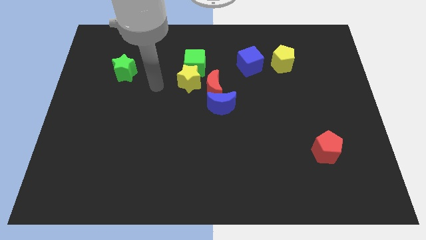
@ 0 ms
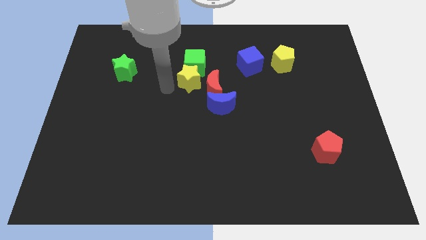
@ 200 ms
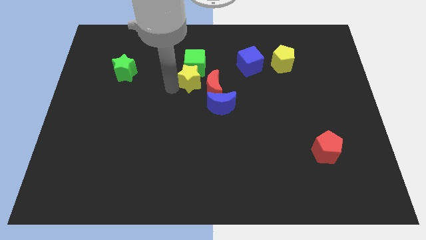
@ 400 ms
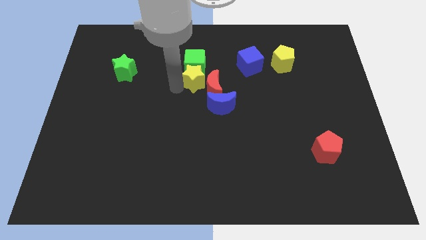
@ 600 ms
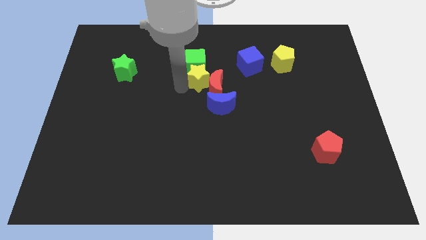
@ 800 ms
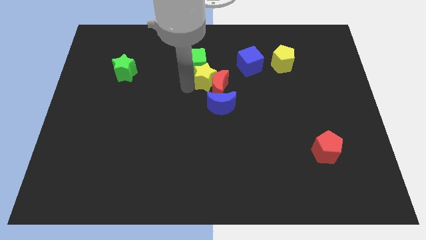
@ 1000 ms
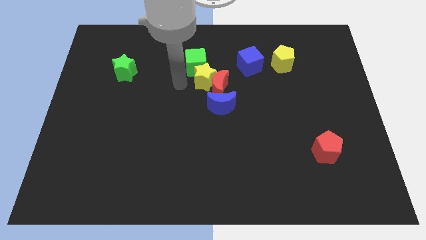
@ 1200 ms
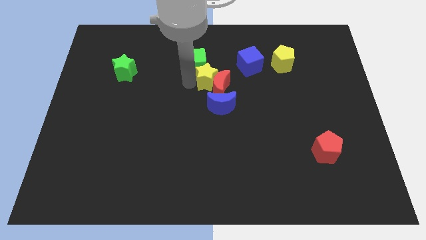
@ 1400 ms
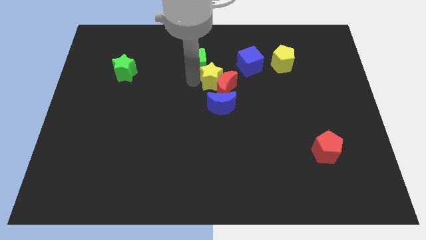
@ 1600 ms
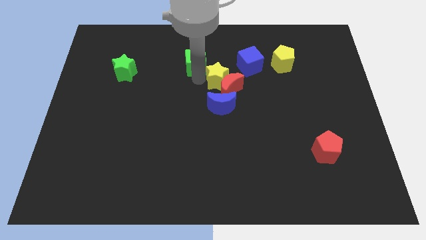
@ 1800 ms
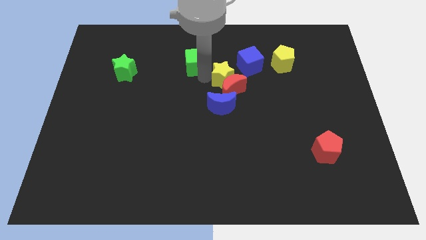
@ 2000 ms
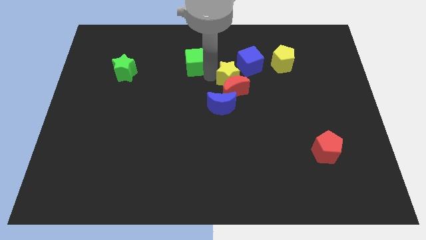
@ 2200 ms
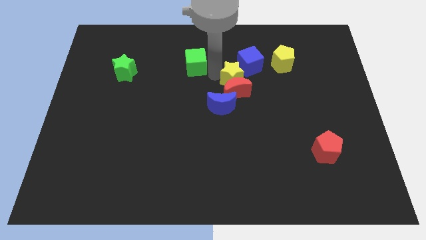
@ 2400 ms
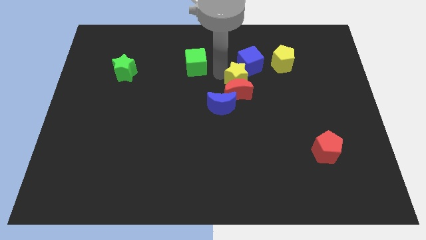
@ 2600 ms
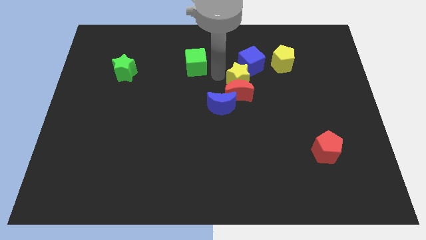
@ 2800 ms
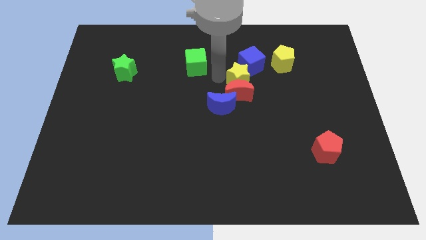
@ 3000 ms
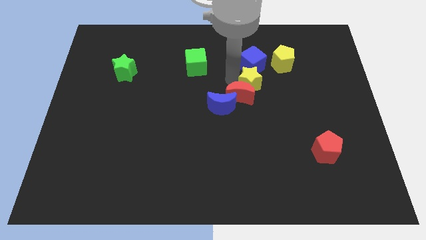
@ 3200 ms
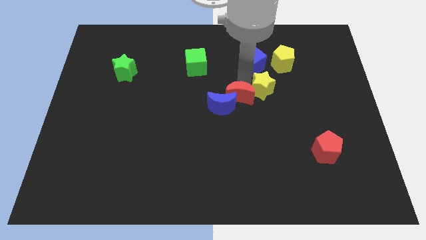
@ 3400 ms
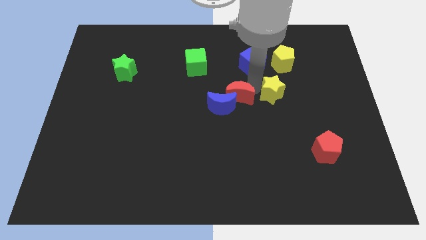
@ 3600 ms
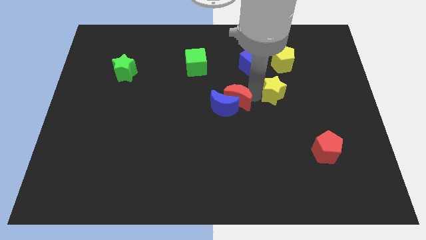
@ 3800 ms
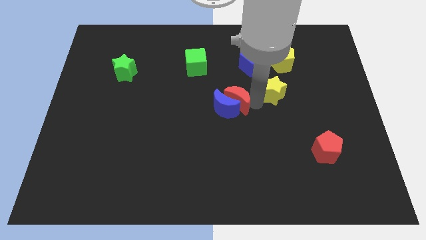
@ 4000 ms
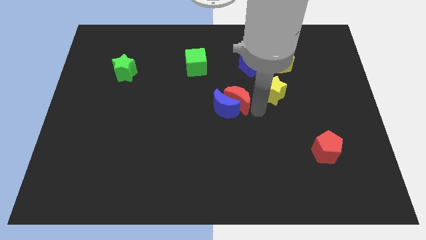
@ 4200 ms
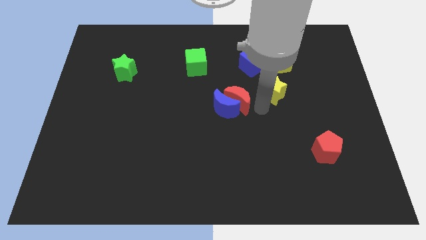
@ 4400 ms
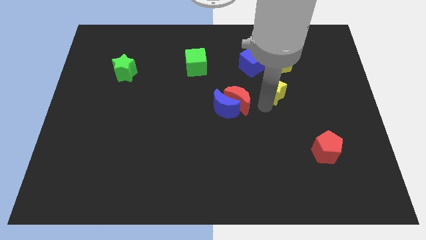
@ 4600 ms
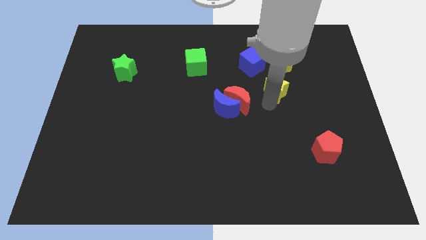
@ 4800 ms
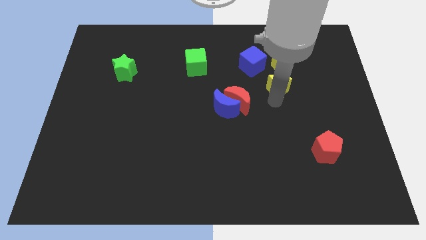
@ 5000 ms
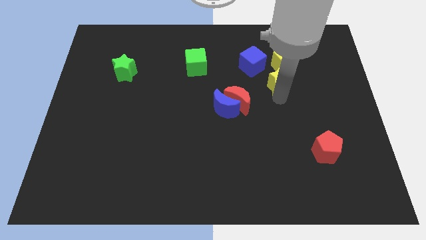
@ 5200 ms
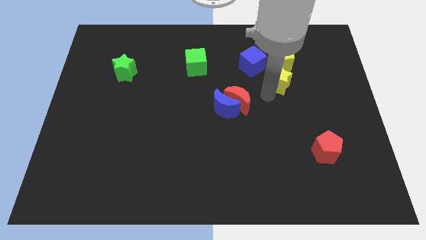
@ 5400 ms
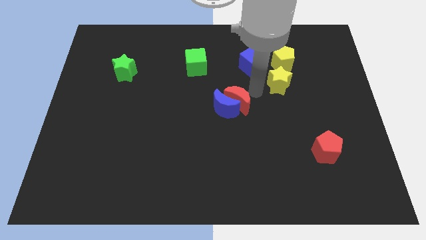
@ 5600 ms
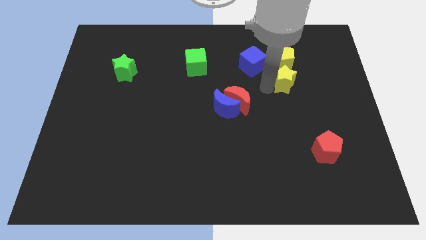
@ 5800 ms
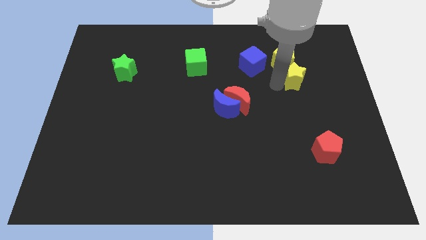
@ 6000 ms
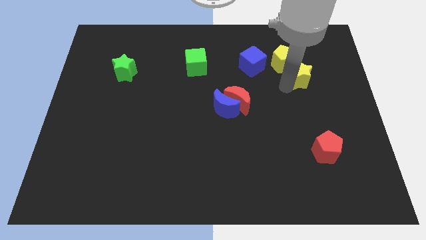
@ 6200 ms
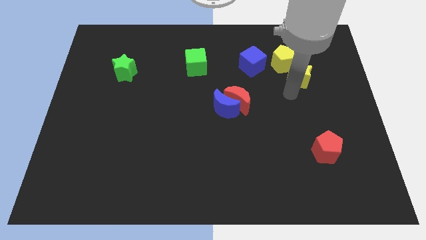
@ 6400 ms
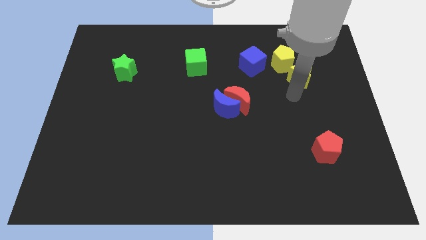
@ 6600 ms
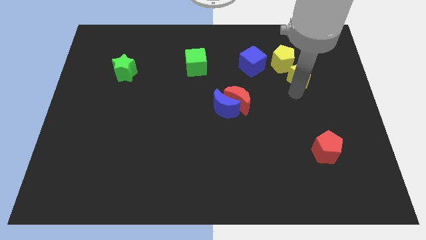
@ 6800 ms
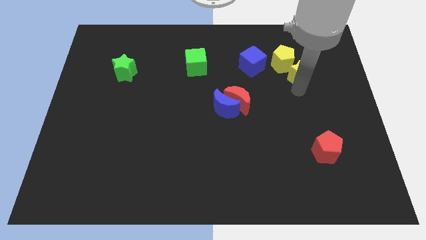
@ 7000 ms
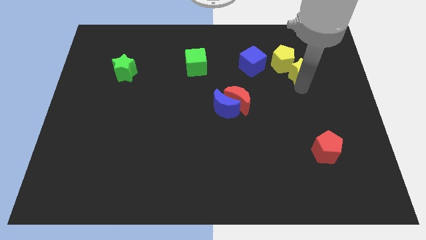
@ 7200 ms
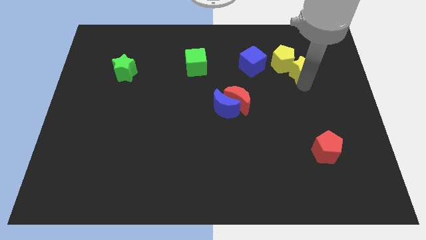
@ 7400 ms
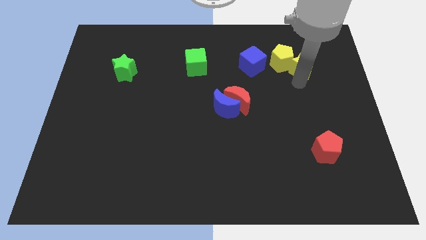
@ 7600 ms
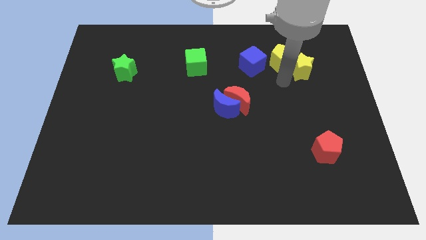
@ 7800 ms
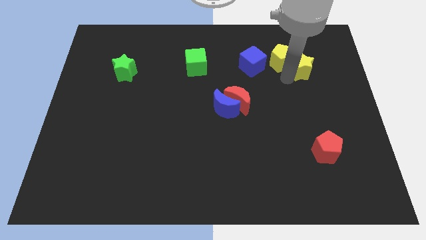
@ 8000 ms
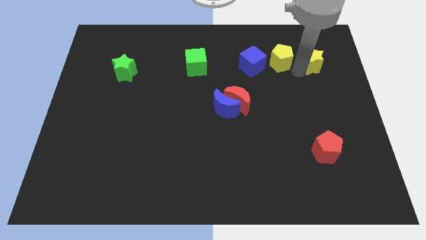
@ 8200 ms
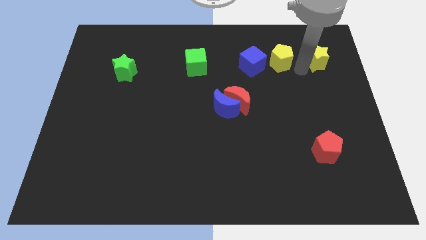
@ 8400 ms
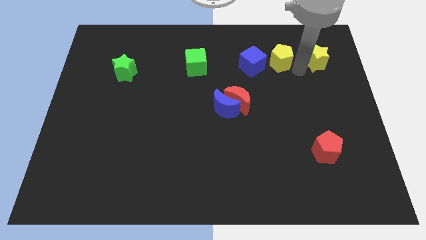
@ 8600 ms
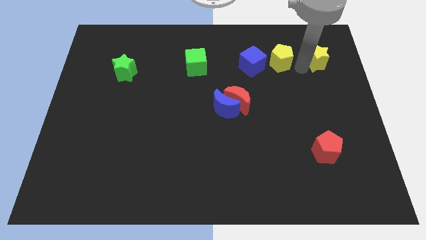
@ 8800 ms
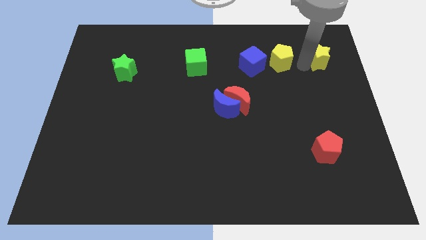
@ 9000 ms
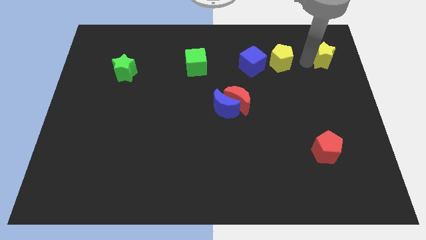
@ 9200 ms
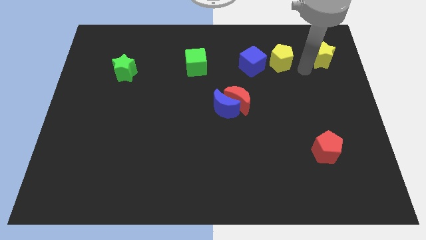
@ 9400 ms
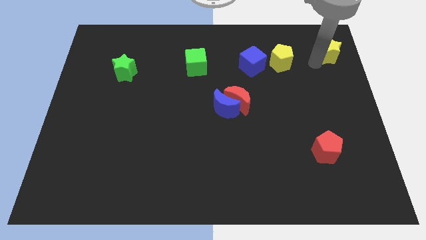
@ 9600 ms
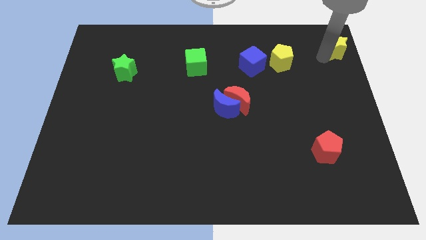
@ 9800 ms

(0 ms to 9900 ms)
move the yellow star to the top right corner

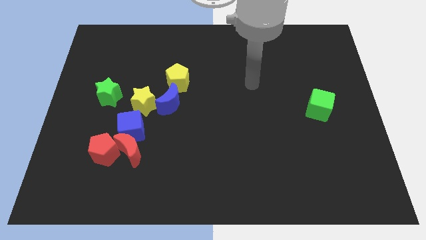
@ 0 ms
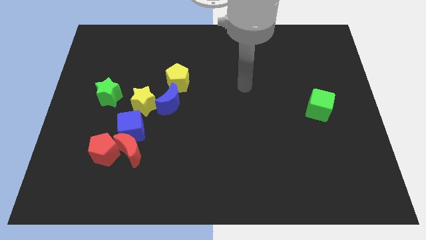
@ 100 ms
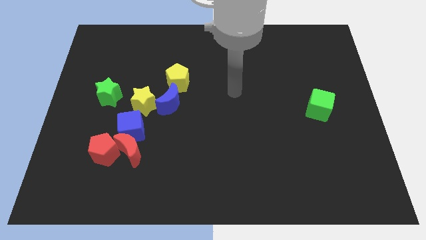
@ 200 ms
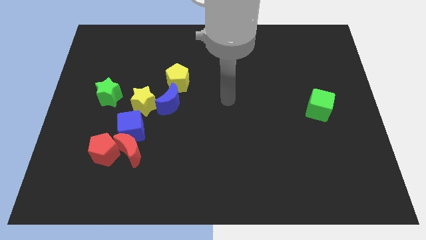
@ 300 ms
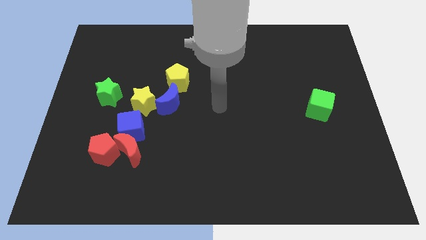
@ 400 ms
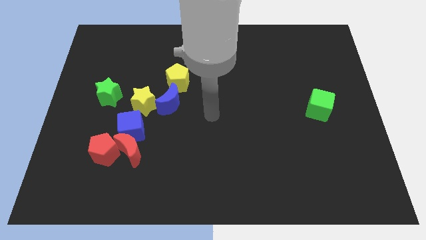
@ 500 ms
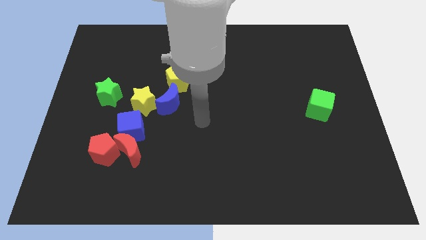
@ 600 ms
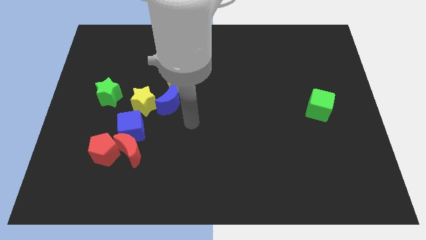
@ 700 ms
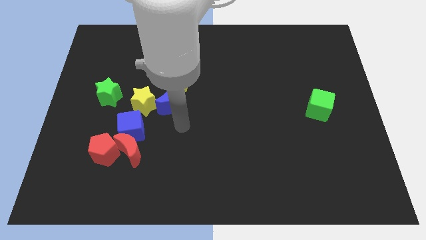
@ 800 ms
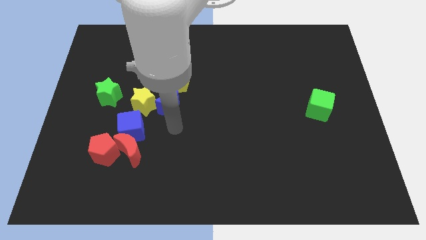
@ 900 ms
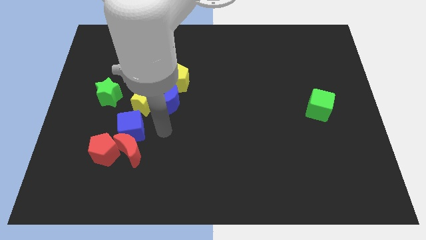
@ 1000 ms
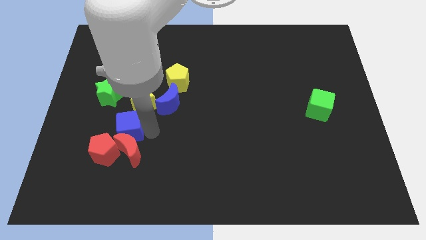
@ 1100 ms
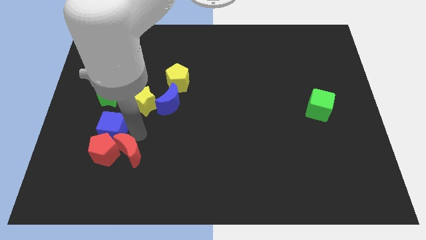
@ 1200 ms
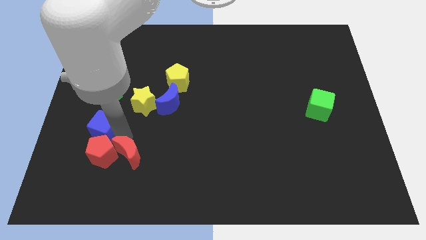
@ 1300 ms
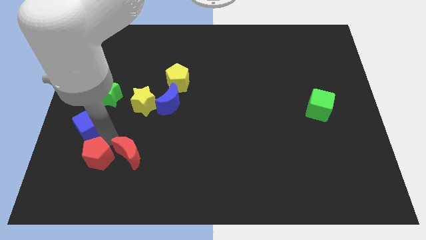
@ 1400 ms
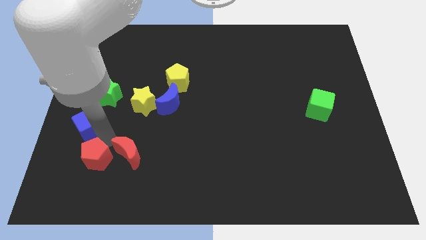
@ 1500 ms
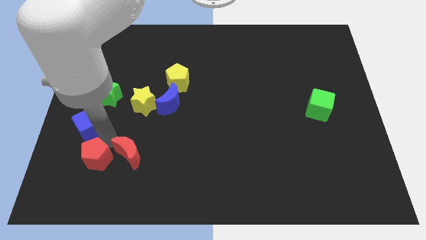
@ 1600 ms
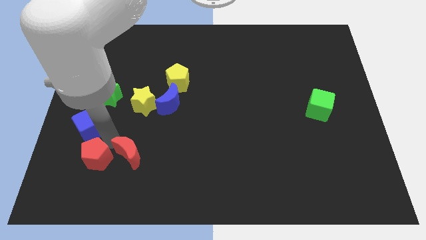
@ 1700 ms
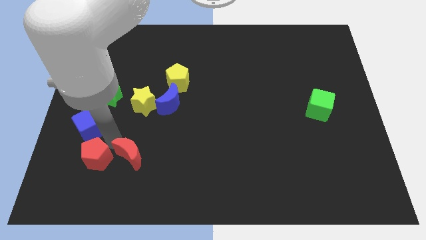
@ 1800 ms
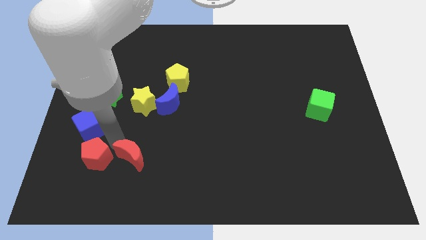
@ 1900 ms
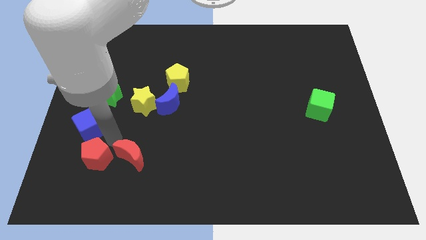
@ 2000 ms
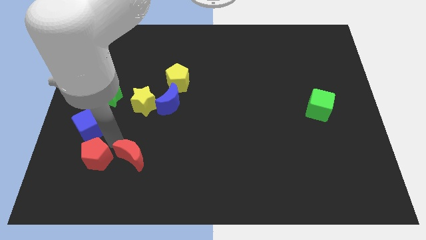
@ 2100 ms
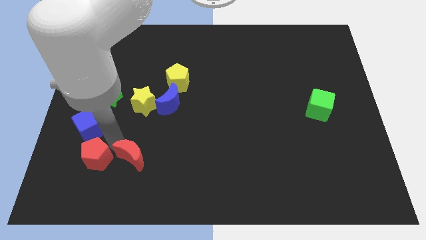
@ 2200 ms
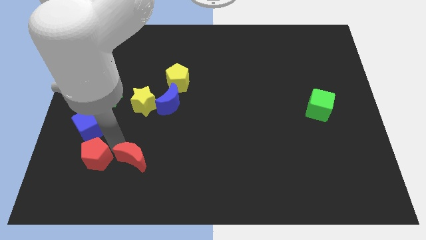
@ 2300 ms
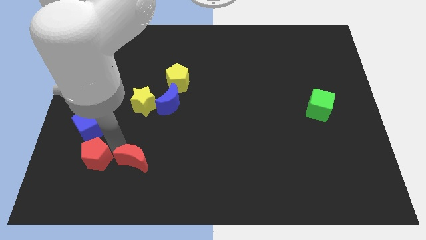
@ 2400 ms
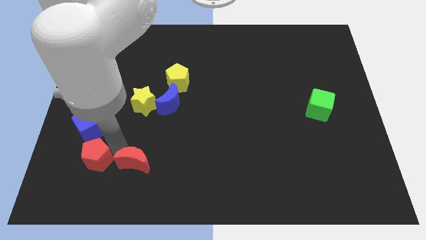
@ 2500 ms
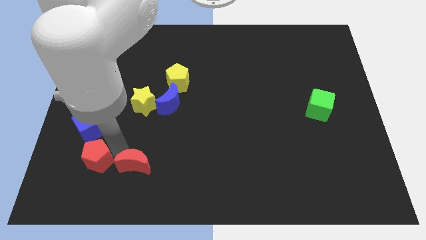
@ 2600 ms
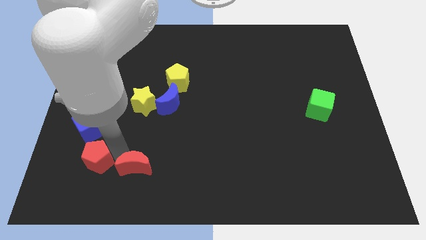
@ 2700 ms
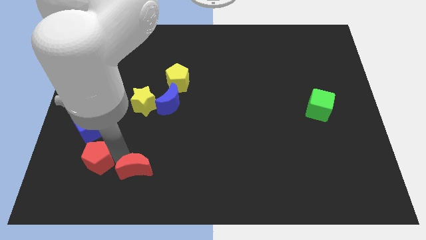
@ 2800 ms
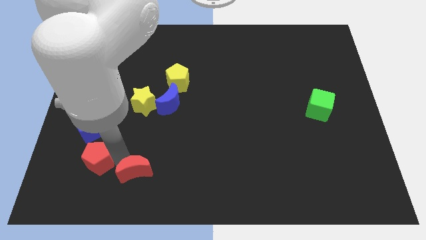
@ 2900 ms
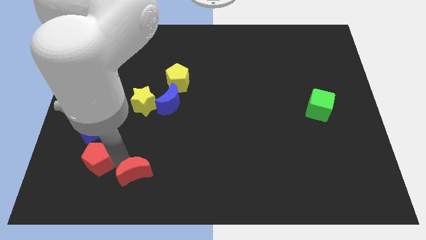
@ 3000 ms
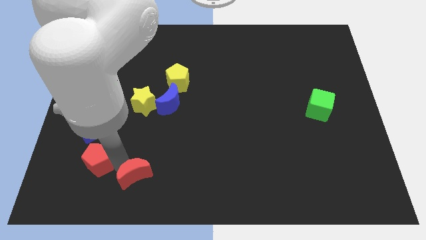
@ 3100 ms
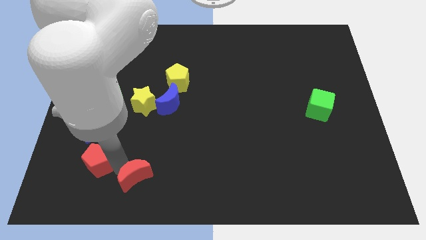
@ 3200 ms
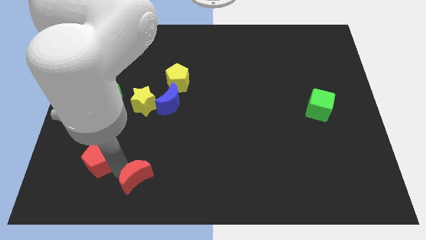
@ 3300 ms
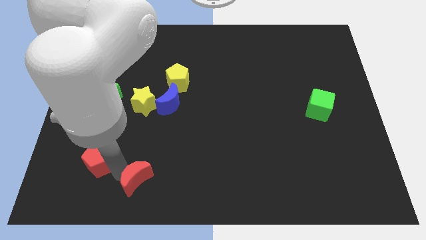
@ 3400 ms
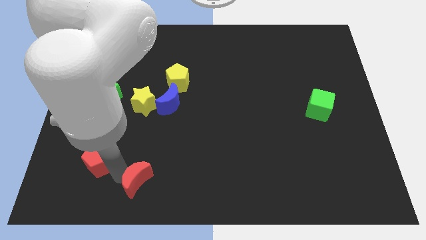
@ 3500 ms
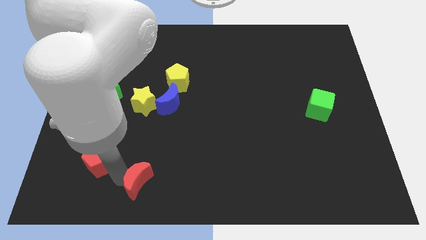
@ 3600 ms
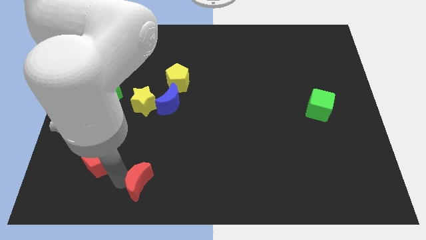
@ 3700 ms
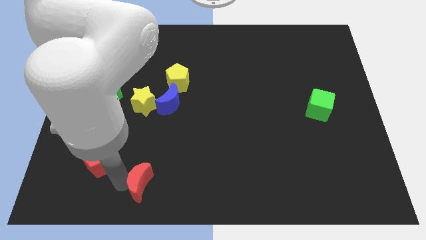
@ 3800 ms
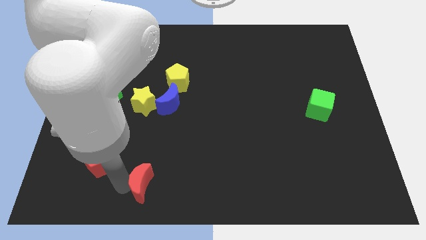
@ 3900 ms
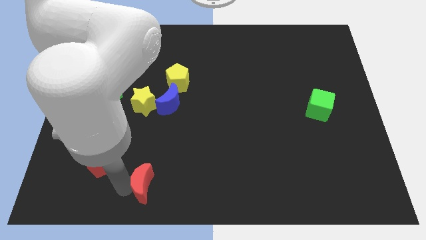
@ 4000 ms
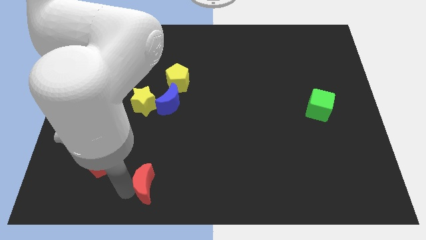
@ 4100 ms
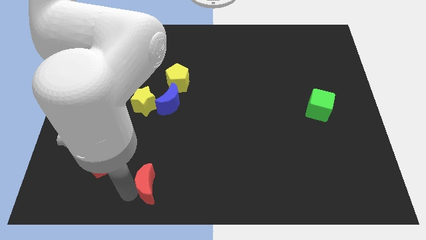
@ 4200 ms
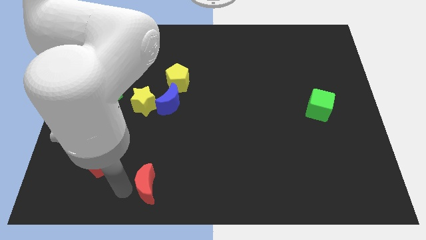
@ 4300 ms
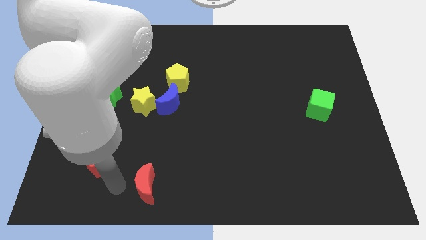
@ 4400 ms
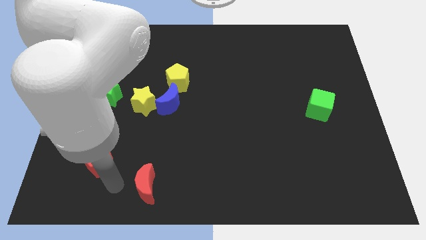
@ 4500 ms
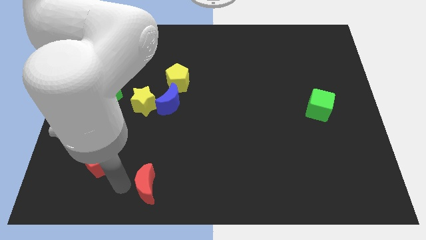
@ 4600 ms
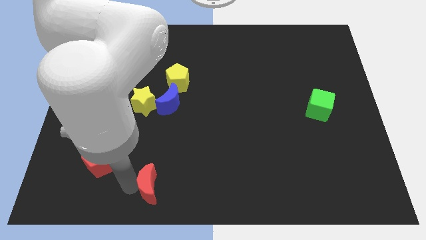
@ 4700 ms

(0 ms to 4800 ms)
put the red moon to the bottom side
